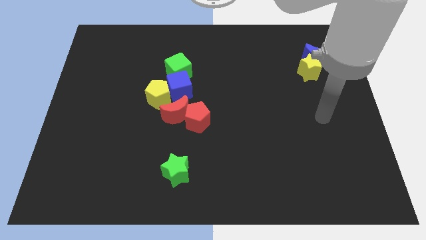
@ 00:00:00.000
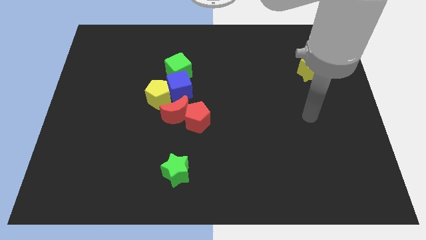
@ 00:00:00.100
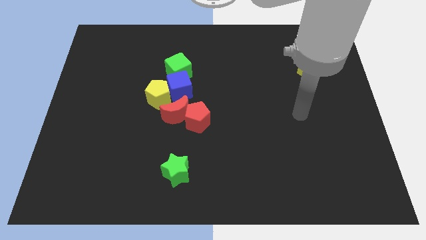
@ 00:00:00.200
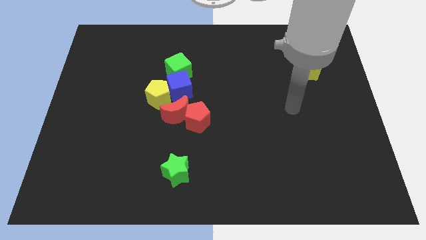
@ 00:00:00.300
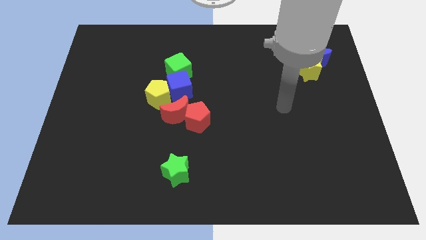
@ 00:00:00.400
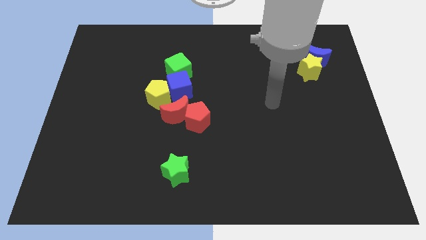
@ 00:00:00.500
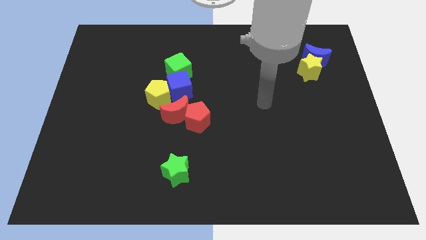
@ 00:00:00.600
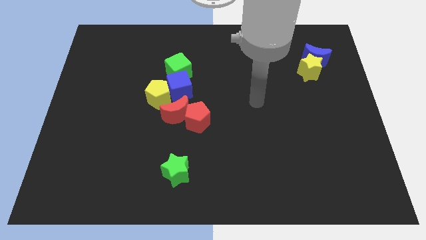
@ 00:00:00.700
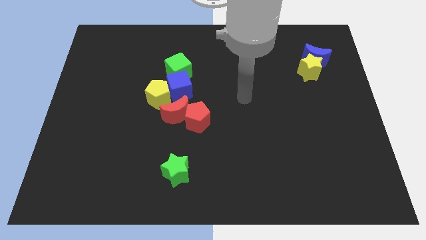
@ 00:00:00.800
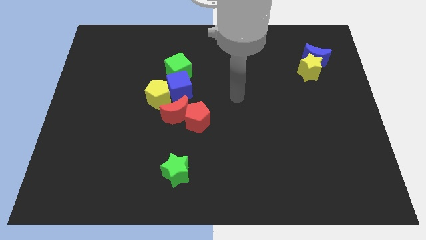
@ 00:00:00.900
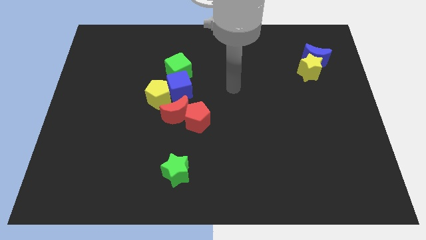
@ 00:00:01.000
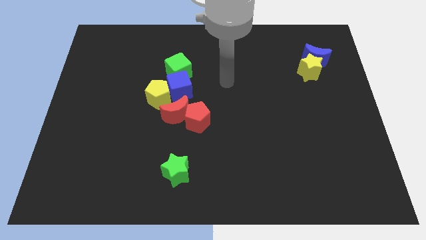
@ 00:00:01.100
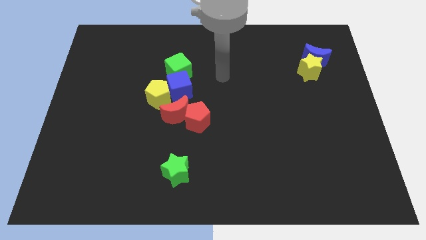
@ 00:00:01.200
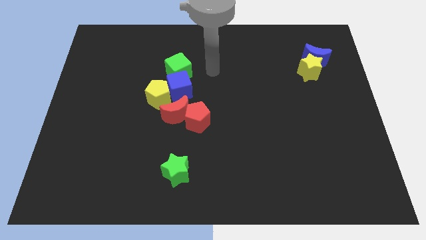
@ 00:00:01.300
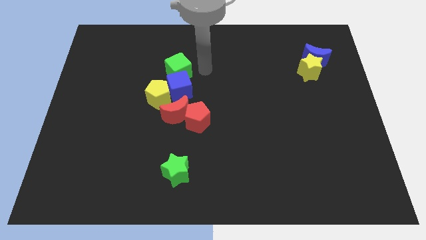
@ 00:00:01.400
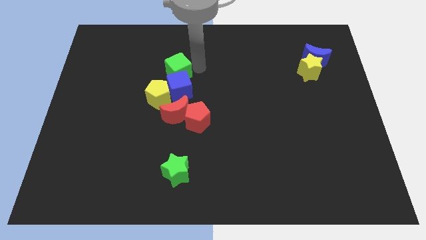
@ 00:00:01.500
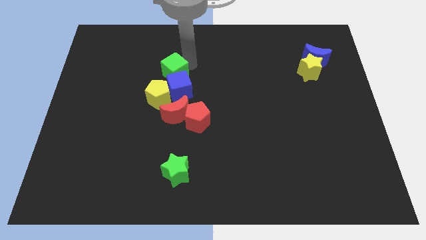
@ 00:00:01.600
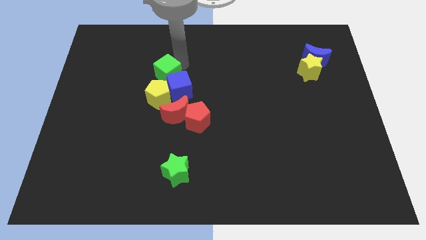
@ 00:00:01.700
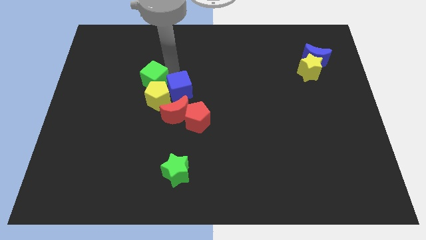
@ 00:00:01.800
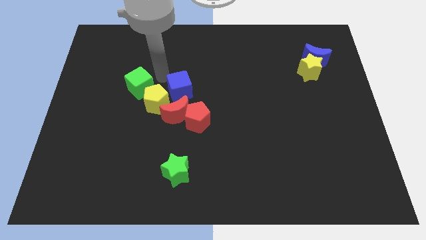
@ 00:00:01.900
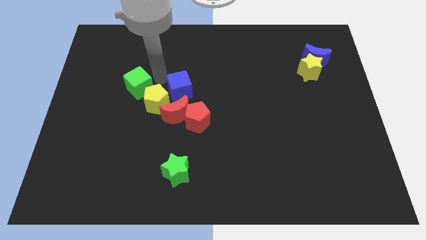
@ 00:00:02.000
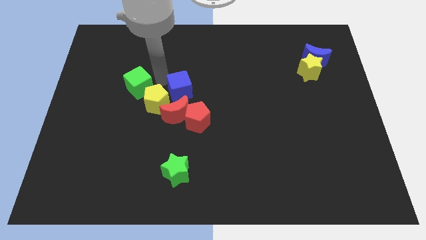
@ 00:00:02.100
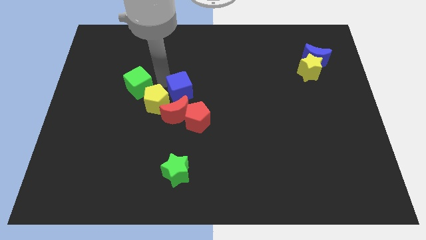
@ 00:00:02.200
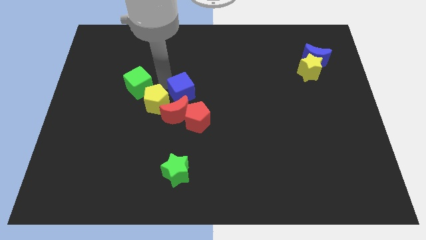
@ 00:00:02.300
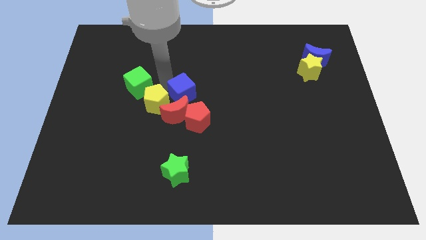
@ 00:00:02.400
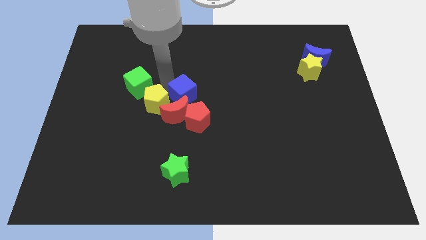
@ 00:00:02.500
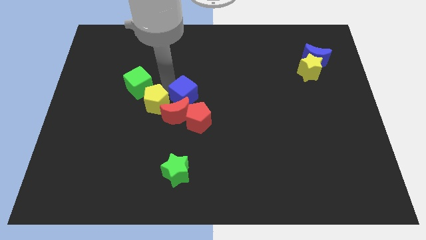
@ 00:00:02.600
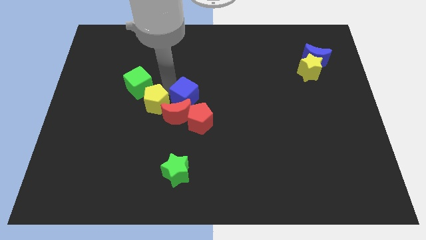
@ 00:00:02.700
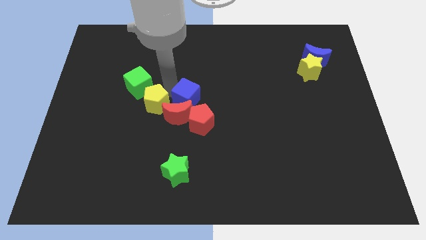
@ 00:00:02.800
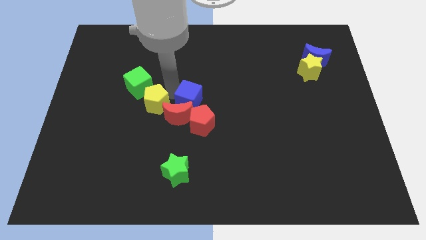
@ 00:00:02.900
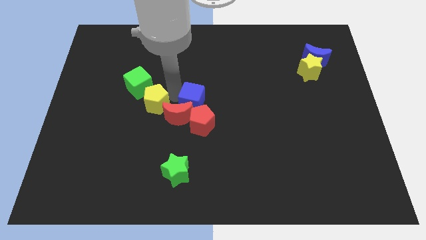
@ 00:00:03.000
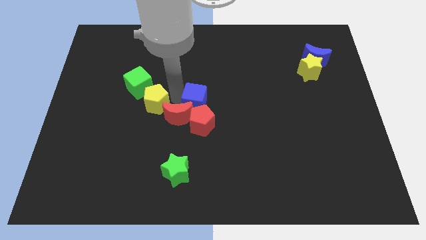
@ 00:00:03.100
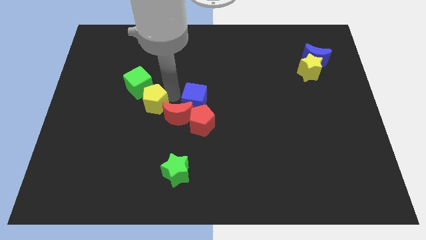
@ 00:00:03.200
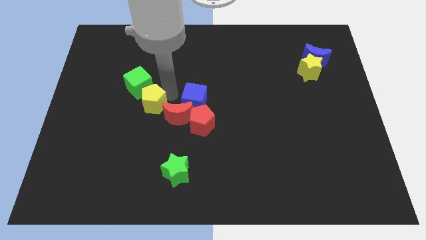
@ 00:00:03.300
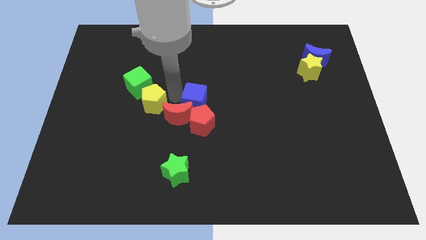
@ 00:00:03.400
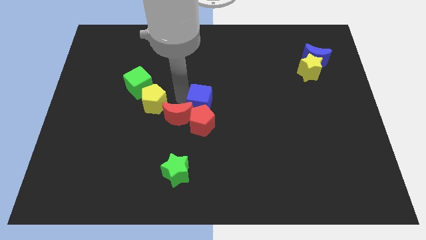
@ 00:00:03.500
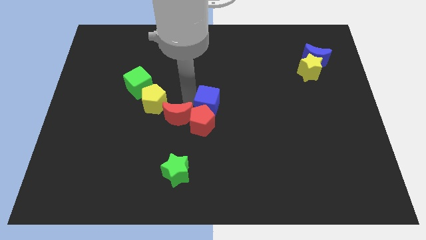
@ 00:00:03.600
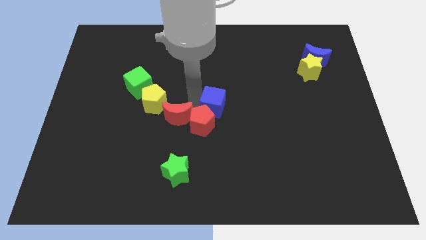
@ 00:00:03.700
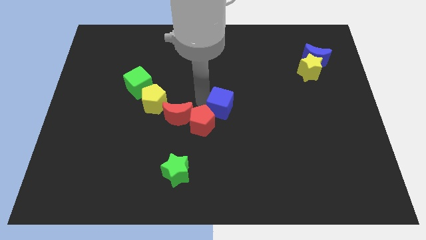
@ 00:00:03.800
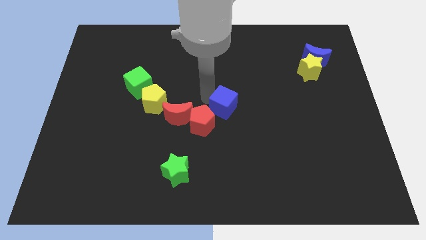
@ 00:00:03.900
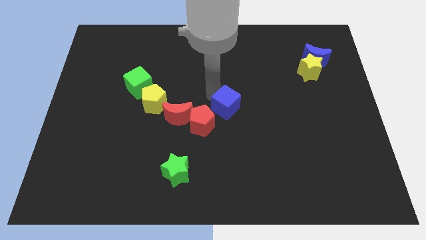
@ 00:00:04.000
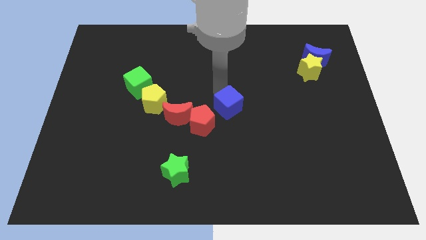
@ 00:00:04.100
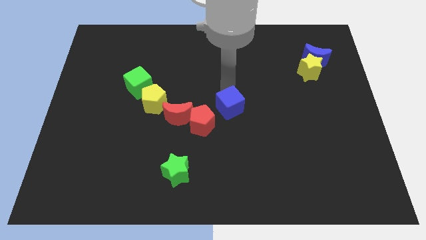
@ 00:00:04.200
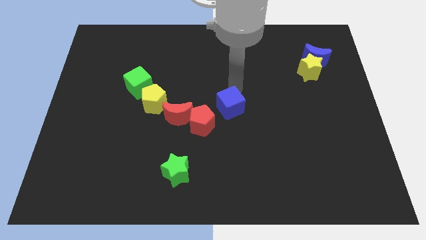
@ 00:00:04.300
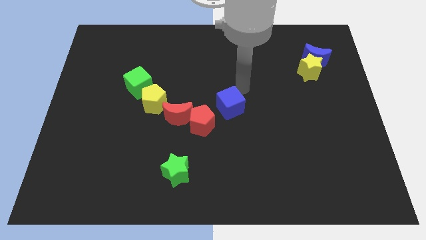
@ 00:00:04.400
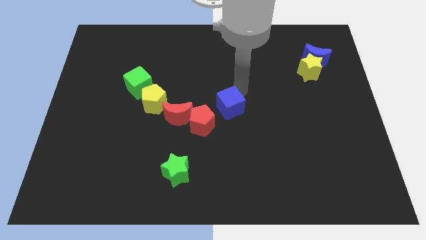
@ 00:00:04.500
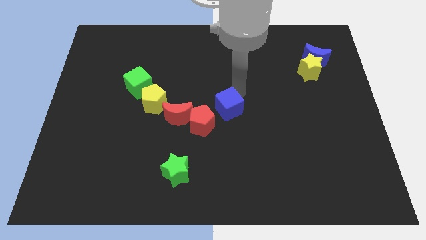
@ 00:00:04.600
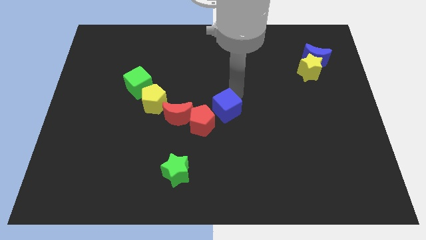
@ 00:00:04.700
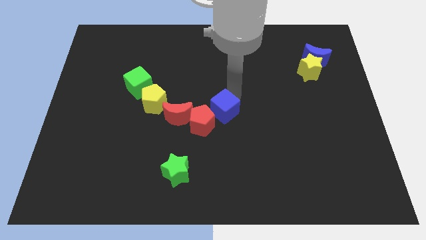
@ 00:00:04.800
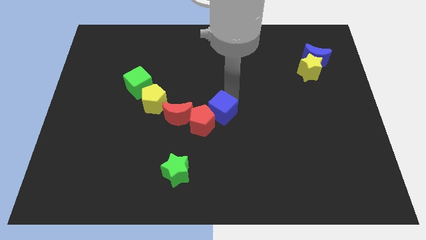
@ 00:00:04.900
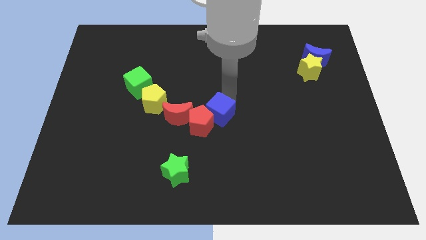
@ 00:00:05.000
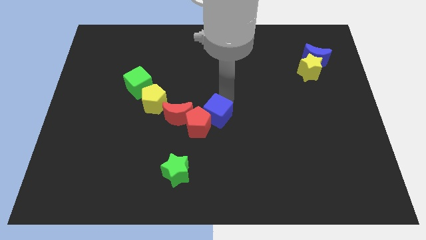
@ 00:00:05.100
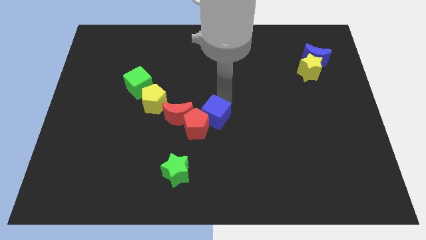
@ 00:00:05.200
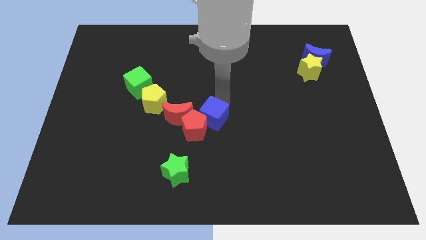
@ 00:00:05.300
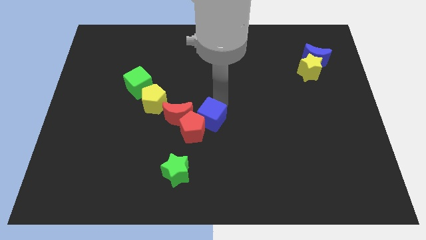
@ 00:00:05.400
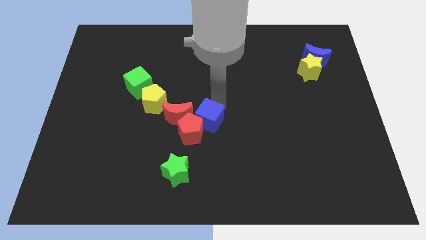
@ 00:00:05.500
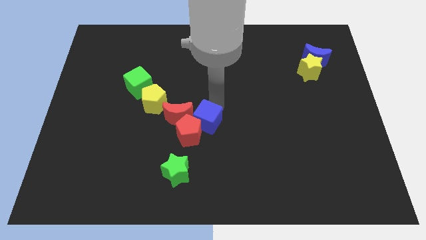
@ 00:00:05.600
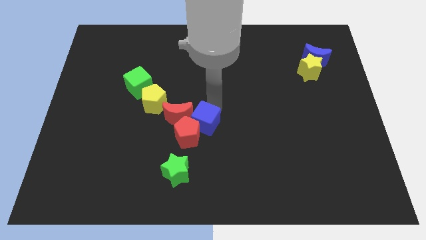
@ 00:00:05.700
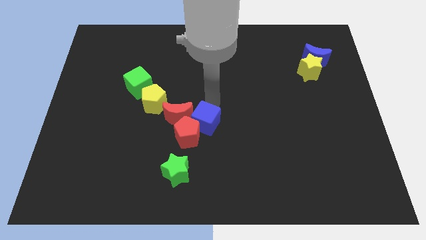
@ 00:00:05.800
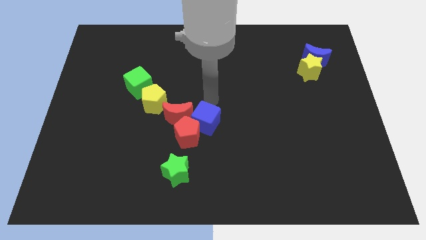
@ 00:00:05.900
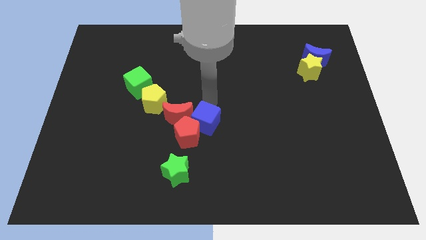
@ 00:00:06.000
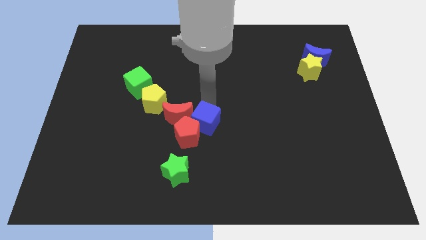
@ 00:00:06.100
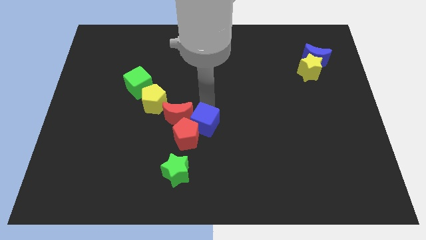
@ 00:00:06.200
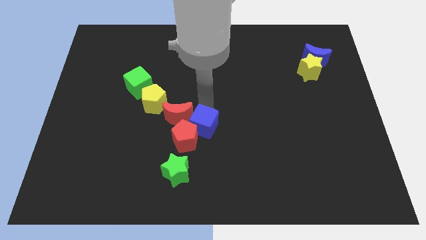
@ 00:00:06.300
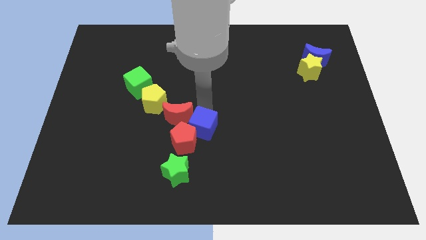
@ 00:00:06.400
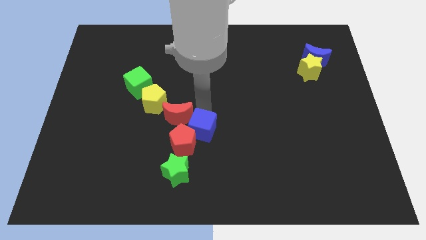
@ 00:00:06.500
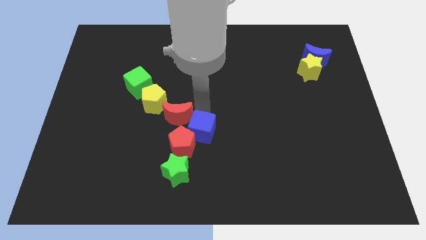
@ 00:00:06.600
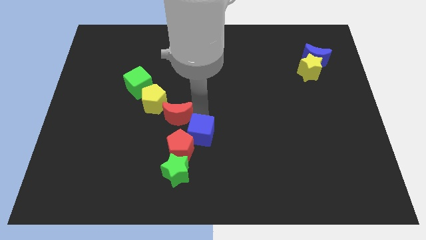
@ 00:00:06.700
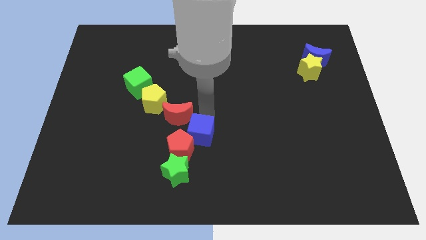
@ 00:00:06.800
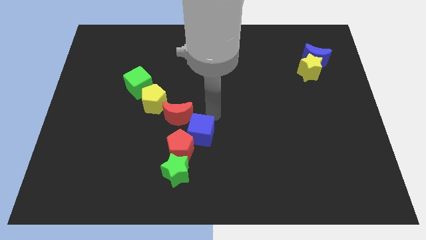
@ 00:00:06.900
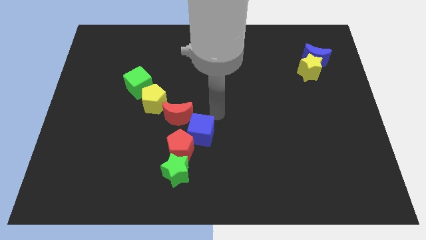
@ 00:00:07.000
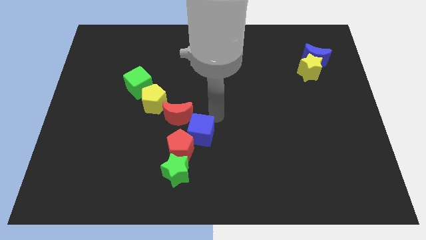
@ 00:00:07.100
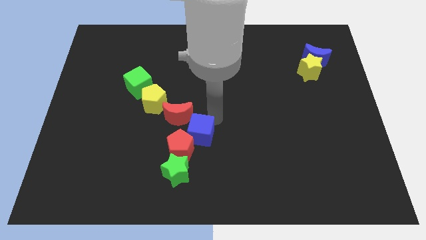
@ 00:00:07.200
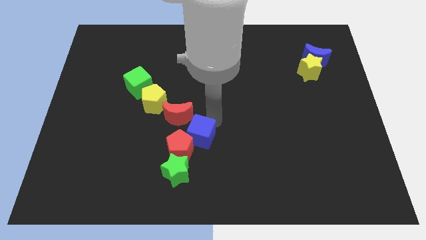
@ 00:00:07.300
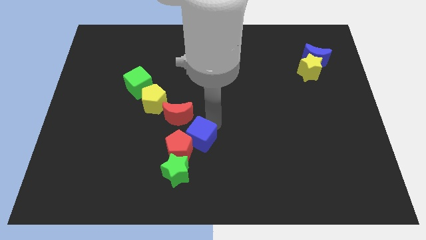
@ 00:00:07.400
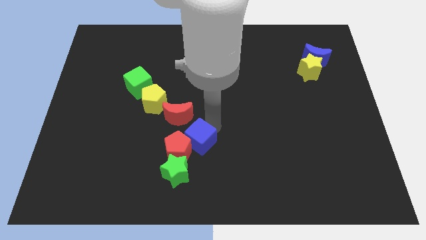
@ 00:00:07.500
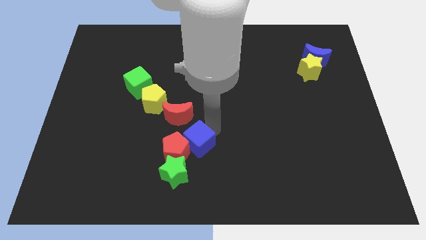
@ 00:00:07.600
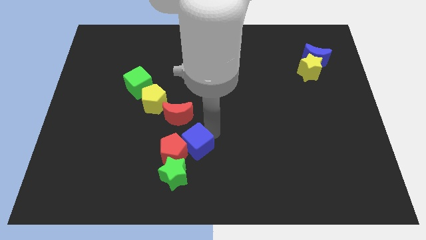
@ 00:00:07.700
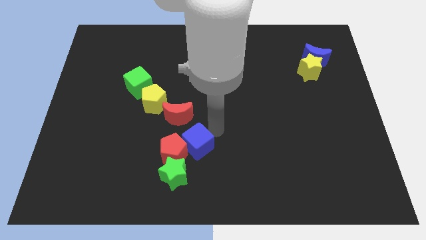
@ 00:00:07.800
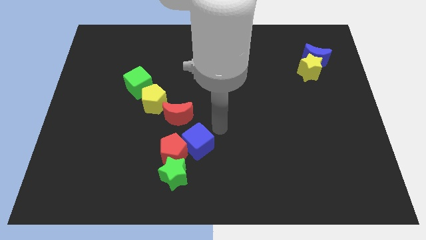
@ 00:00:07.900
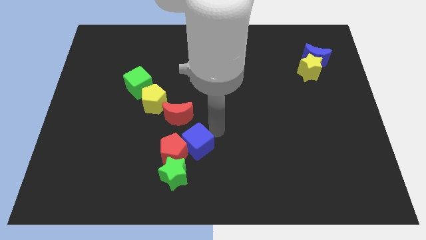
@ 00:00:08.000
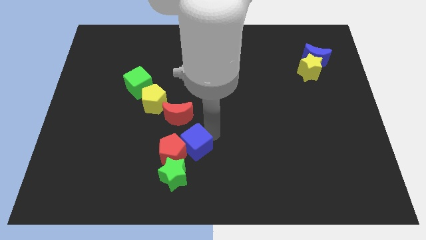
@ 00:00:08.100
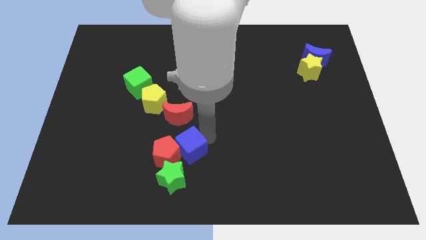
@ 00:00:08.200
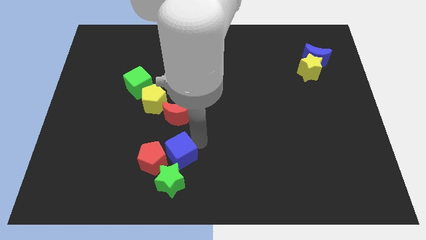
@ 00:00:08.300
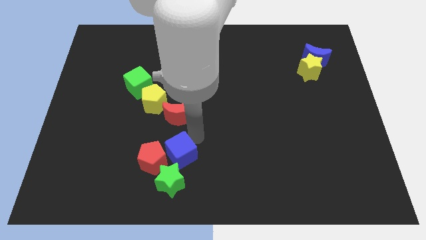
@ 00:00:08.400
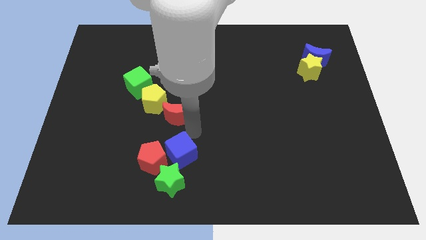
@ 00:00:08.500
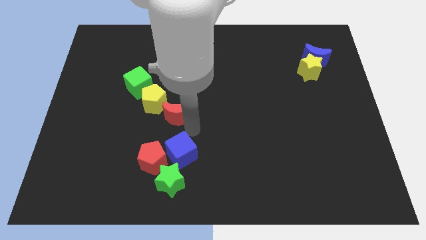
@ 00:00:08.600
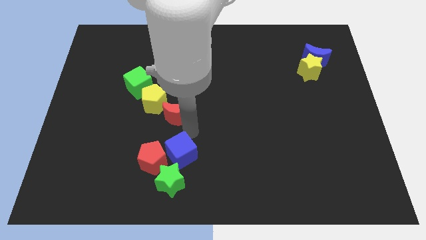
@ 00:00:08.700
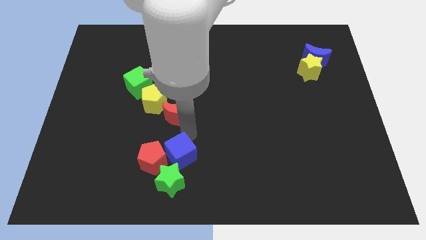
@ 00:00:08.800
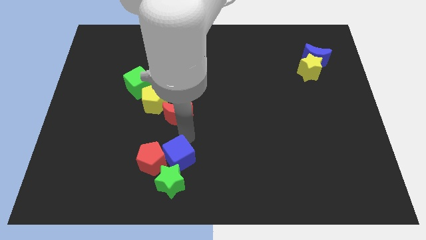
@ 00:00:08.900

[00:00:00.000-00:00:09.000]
put the blue cube next to the green star
